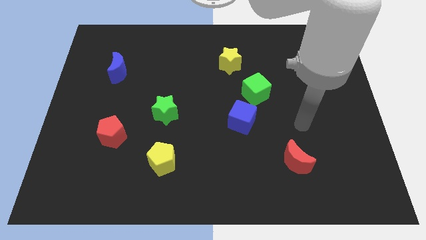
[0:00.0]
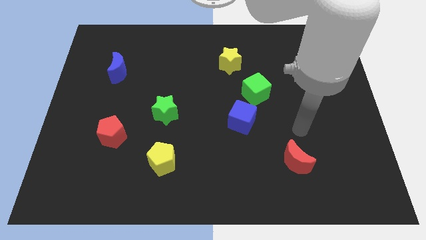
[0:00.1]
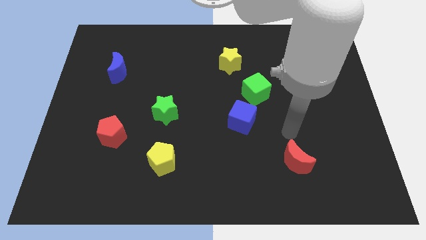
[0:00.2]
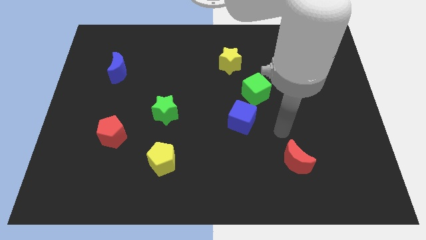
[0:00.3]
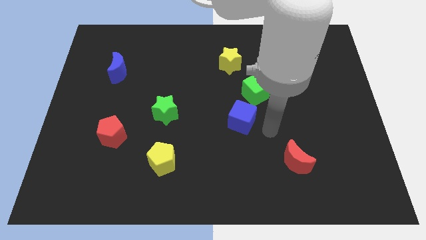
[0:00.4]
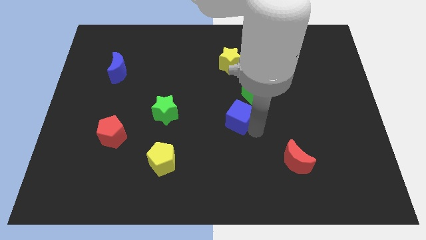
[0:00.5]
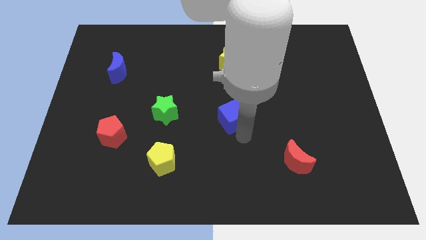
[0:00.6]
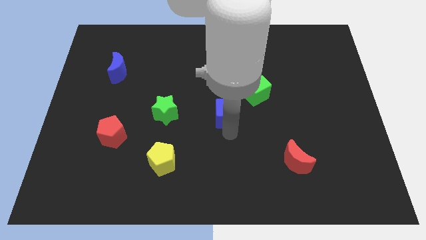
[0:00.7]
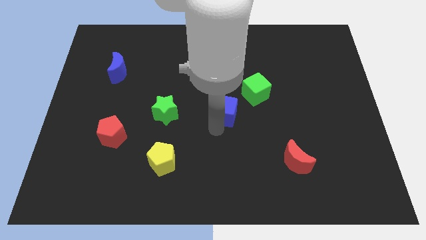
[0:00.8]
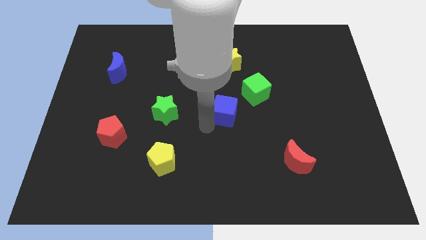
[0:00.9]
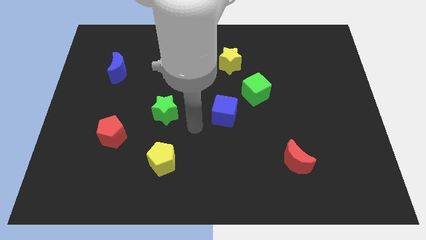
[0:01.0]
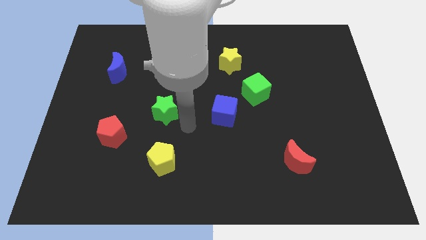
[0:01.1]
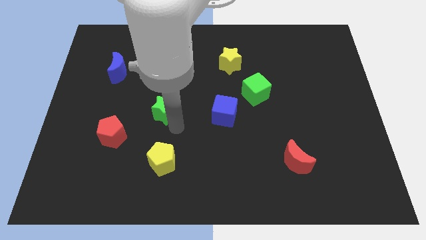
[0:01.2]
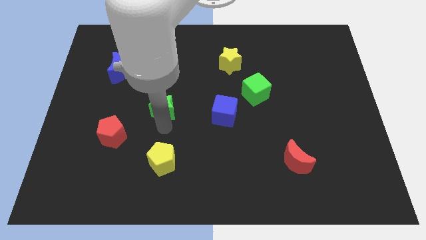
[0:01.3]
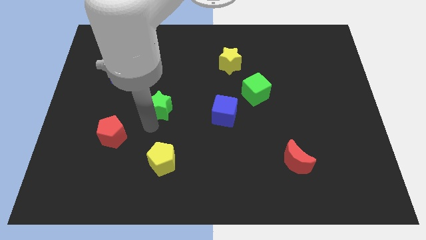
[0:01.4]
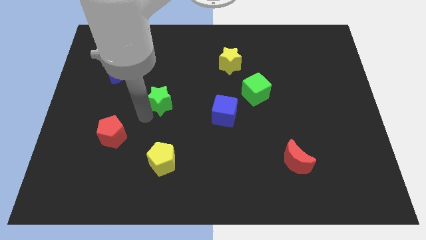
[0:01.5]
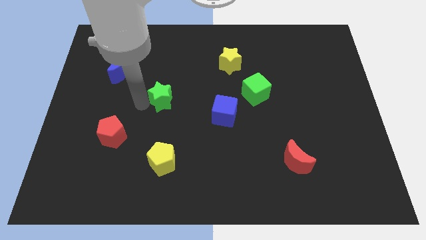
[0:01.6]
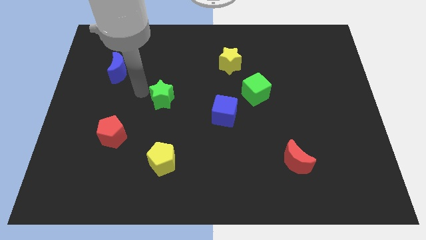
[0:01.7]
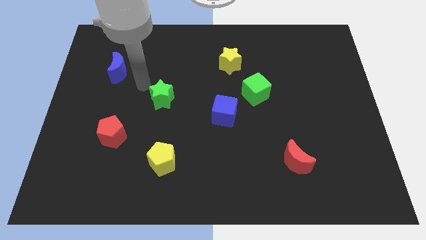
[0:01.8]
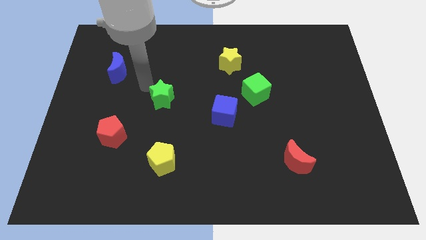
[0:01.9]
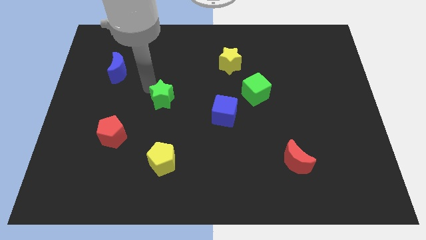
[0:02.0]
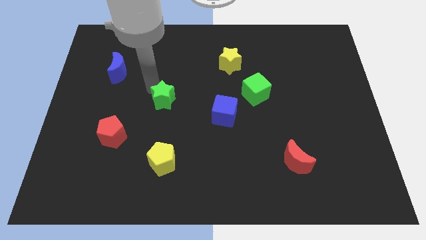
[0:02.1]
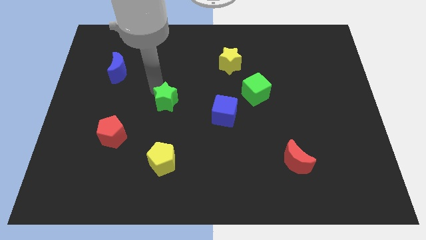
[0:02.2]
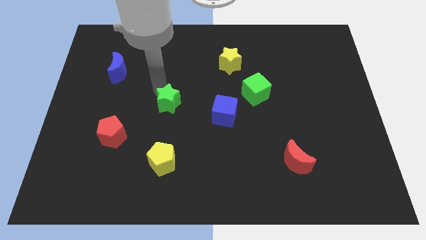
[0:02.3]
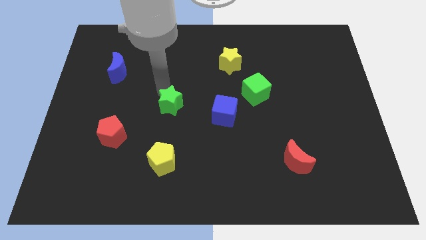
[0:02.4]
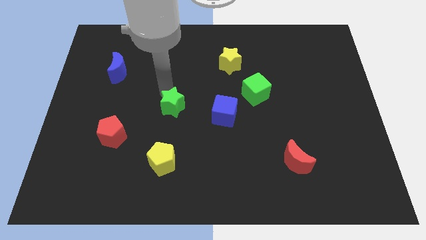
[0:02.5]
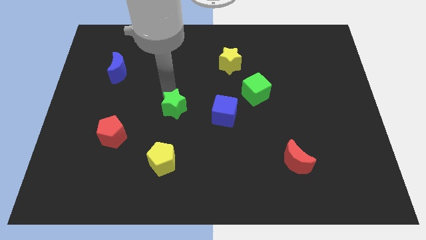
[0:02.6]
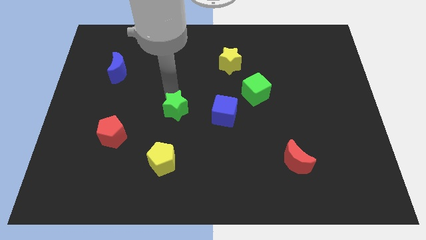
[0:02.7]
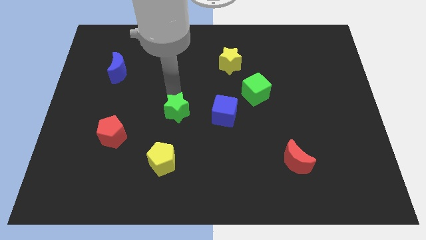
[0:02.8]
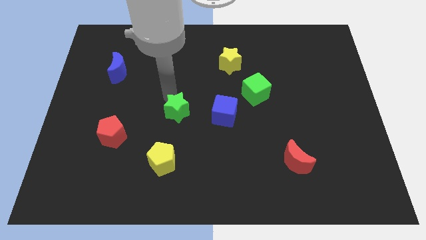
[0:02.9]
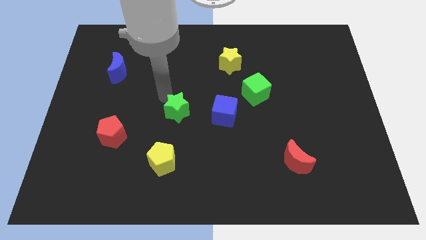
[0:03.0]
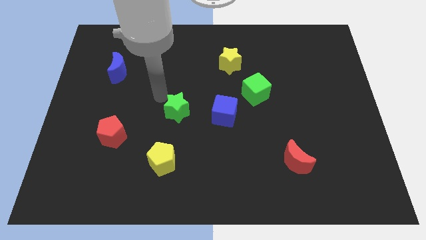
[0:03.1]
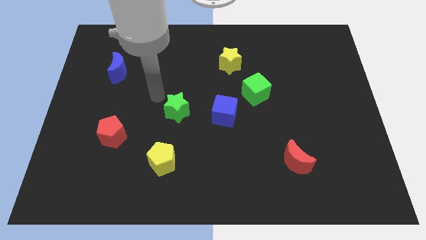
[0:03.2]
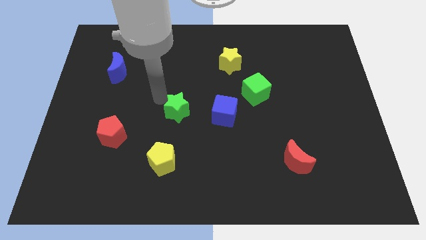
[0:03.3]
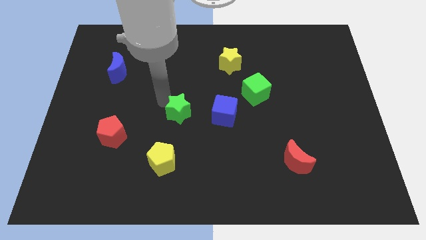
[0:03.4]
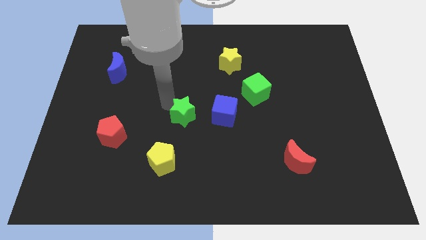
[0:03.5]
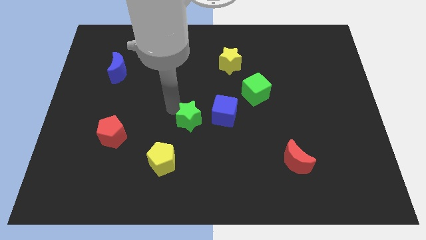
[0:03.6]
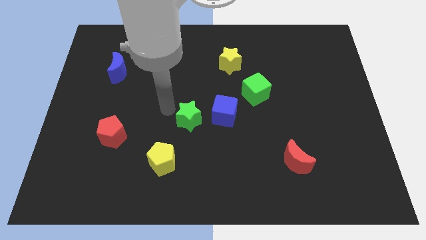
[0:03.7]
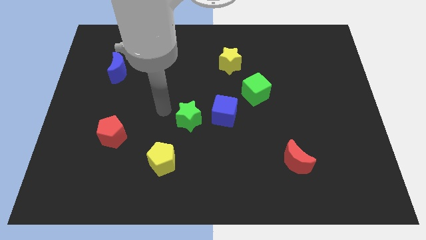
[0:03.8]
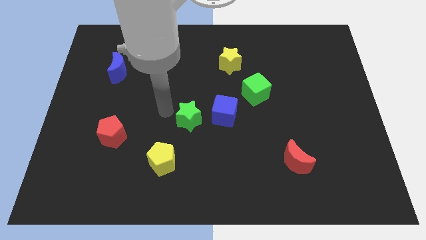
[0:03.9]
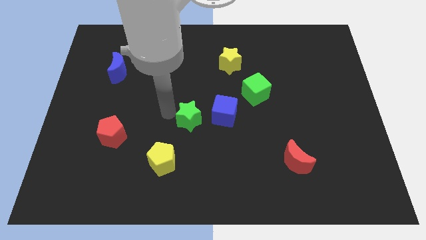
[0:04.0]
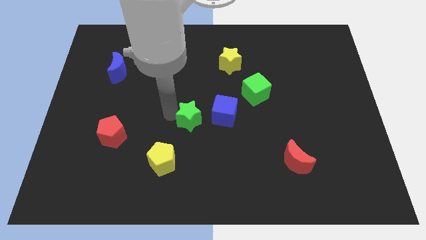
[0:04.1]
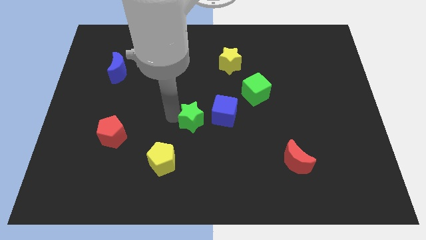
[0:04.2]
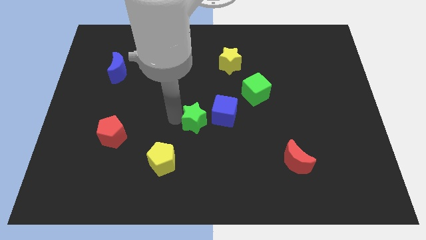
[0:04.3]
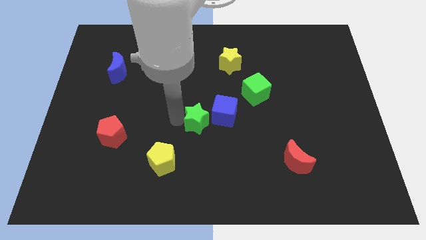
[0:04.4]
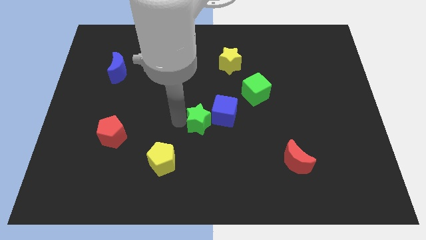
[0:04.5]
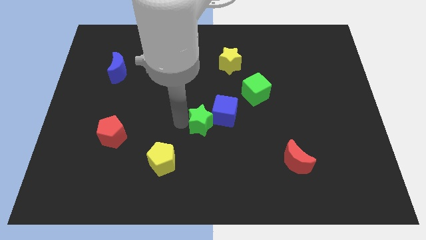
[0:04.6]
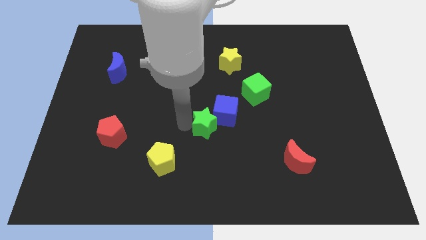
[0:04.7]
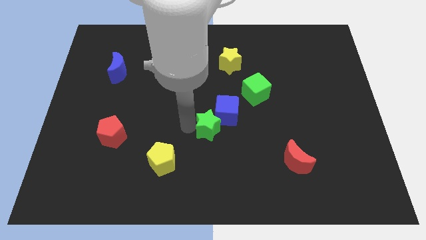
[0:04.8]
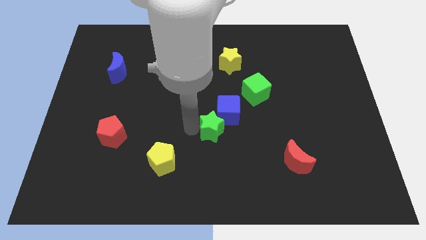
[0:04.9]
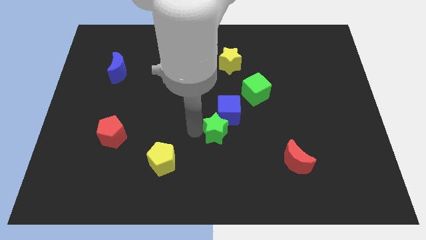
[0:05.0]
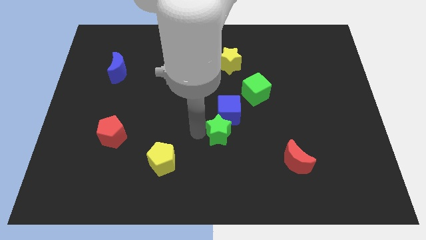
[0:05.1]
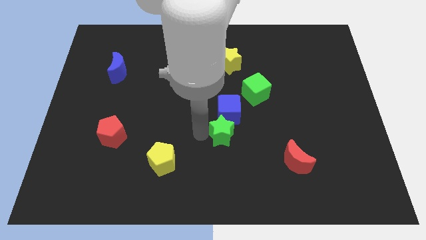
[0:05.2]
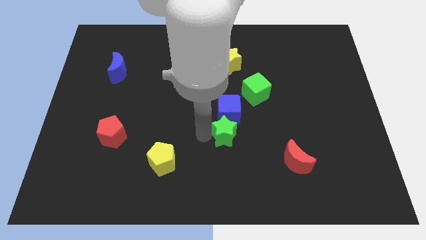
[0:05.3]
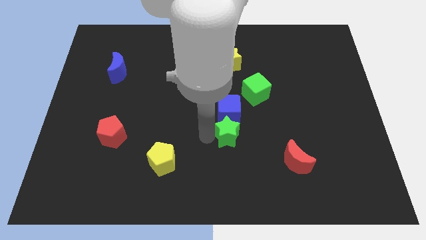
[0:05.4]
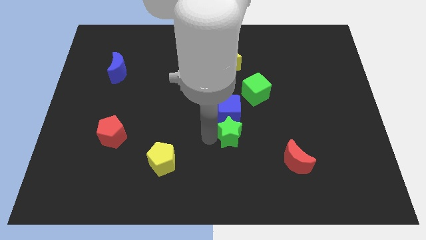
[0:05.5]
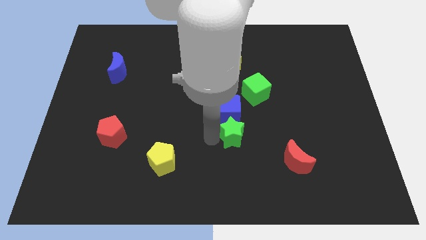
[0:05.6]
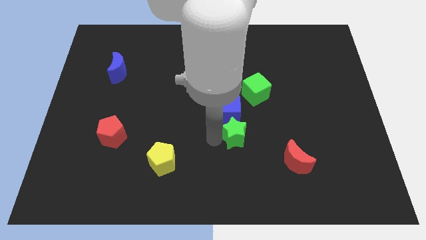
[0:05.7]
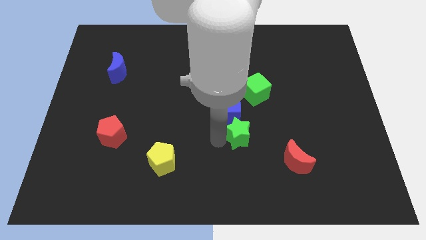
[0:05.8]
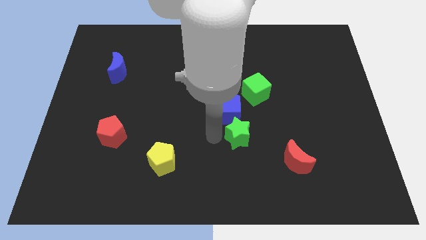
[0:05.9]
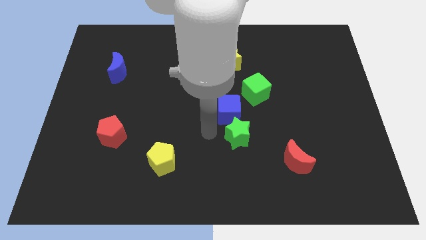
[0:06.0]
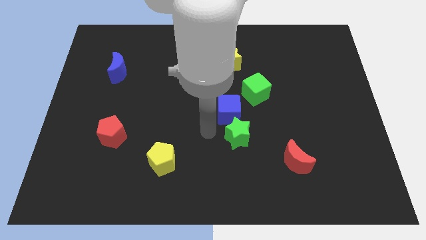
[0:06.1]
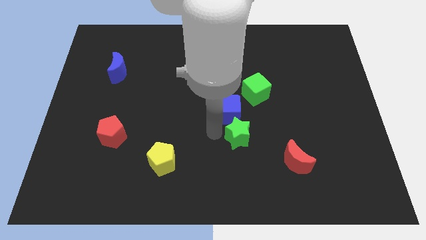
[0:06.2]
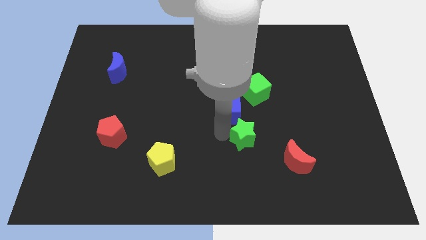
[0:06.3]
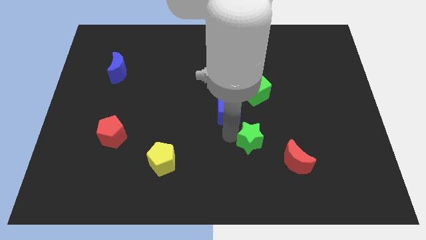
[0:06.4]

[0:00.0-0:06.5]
move the green star to the top left of the red moon
